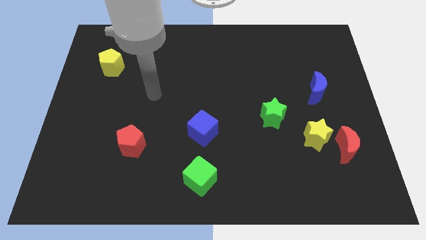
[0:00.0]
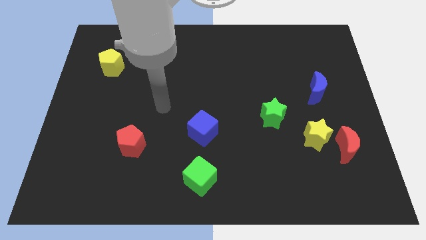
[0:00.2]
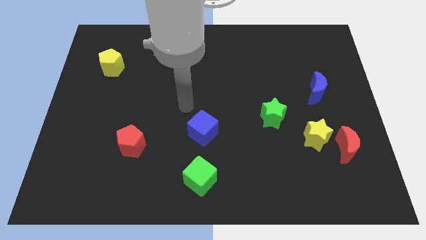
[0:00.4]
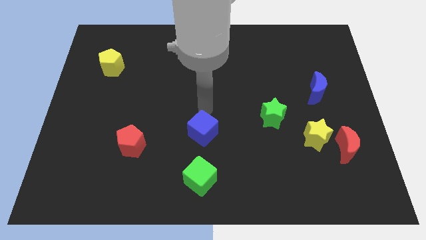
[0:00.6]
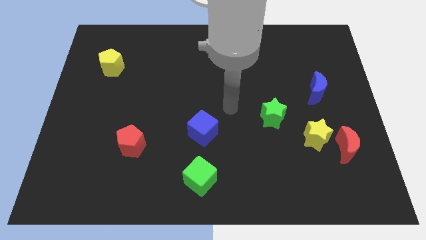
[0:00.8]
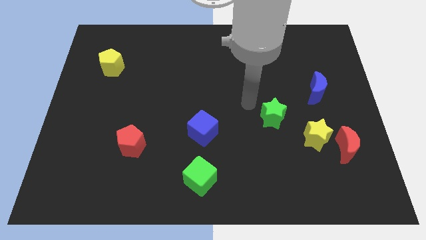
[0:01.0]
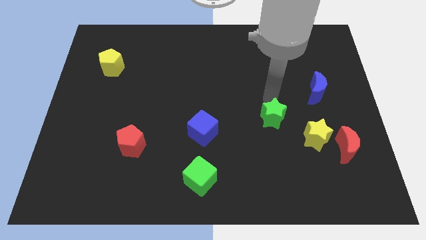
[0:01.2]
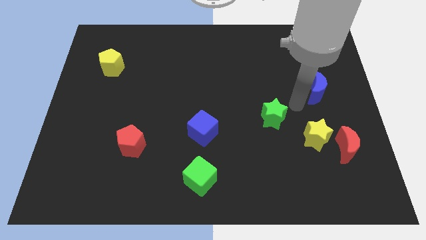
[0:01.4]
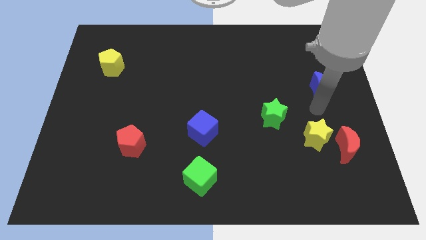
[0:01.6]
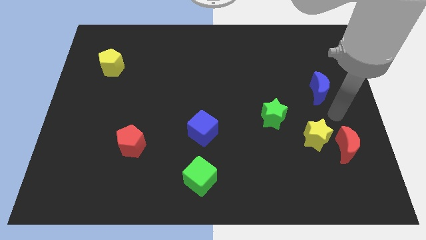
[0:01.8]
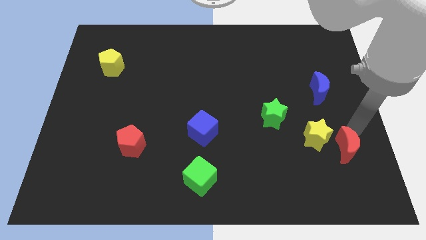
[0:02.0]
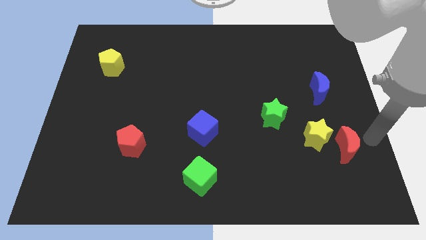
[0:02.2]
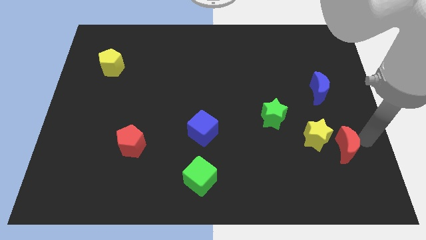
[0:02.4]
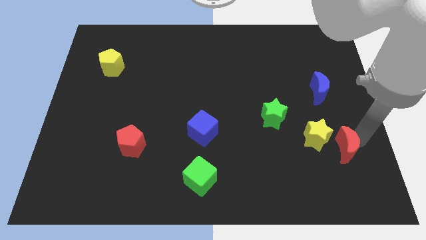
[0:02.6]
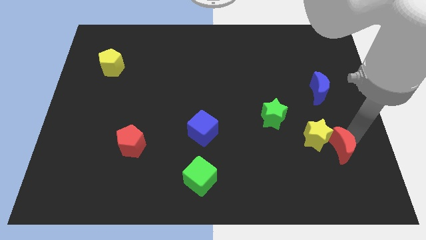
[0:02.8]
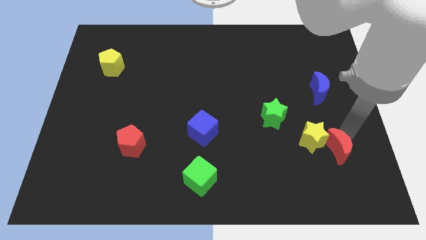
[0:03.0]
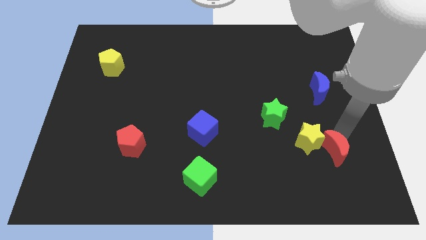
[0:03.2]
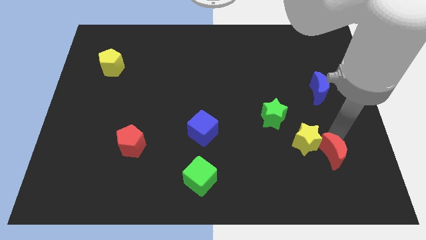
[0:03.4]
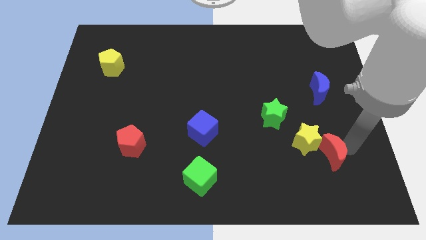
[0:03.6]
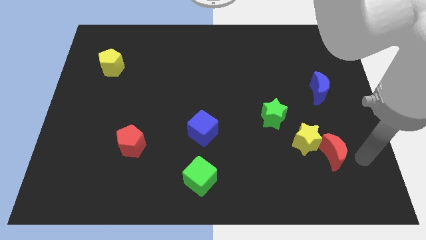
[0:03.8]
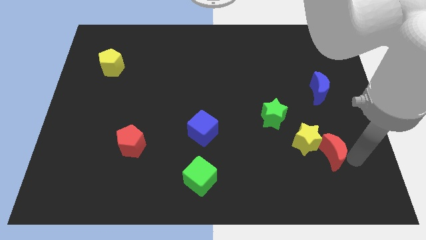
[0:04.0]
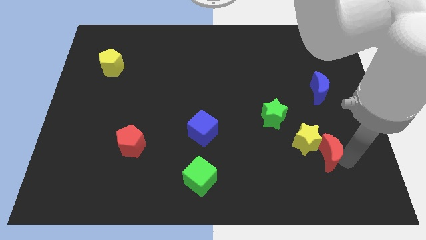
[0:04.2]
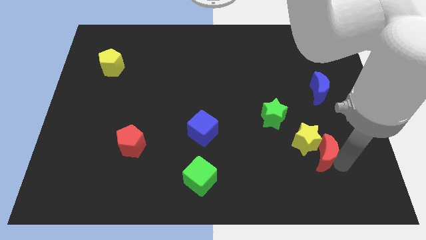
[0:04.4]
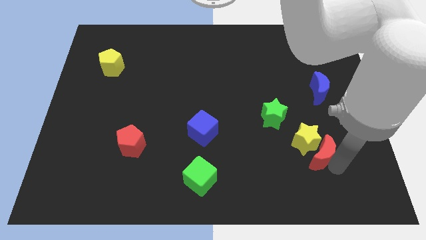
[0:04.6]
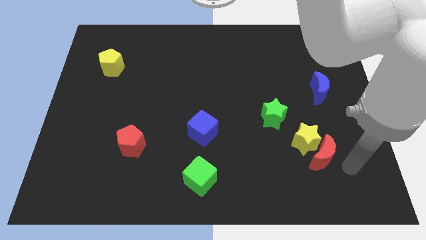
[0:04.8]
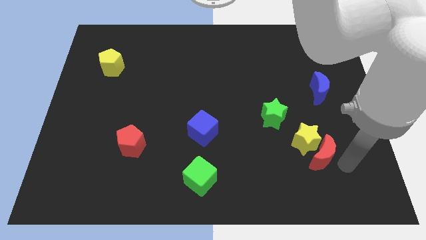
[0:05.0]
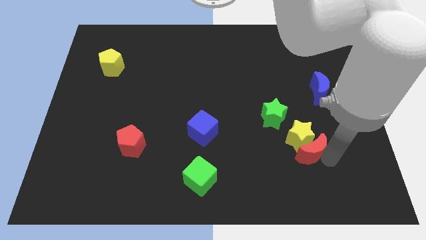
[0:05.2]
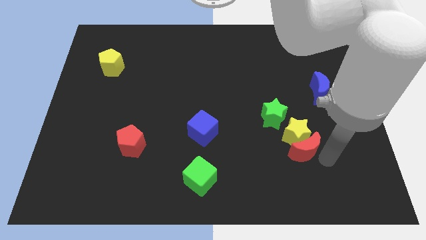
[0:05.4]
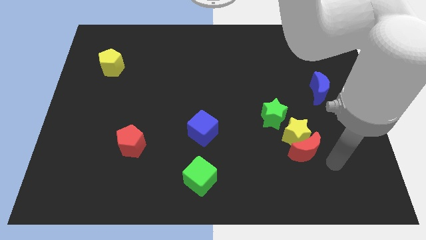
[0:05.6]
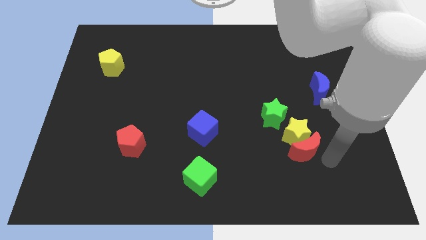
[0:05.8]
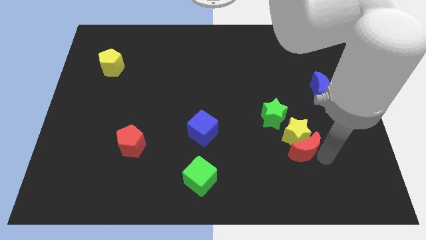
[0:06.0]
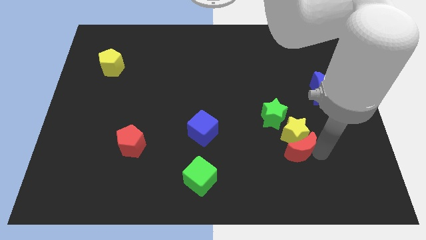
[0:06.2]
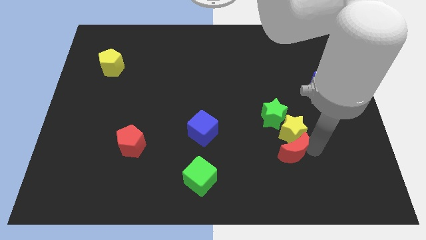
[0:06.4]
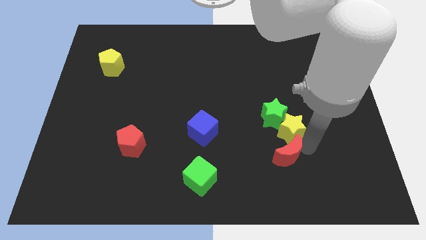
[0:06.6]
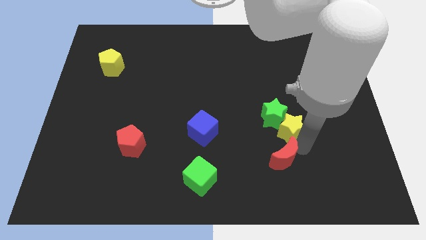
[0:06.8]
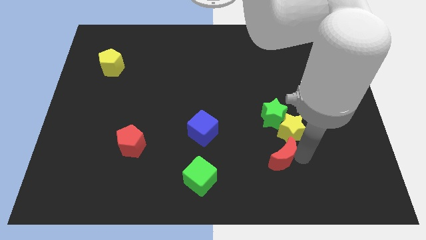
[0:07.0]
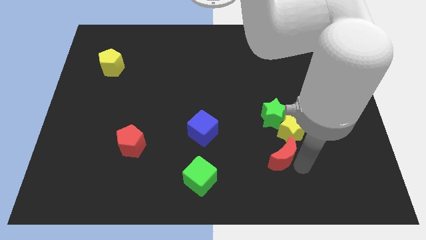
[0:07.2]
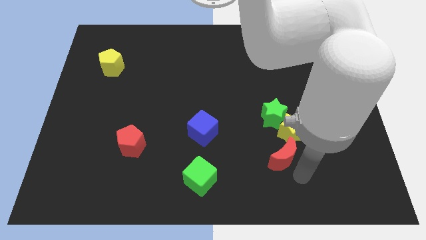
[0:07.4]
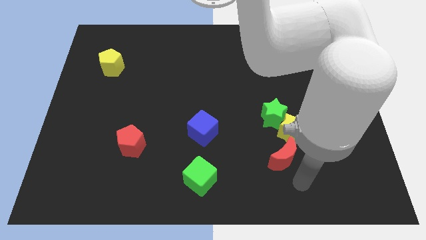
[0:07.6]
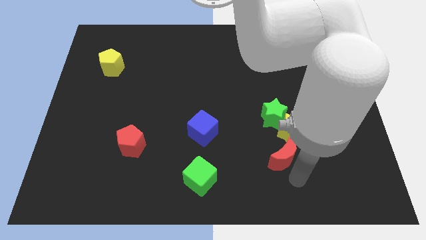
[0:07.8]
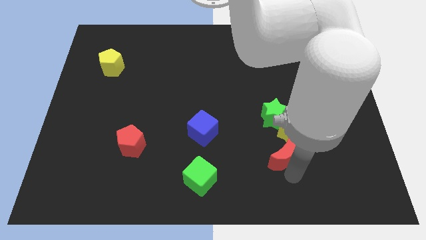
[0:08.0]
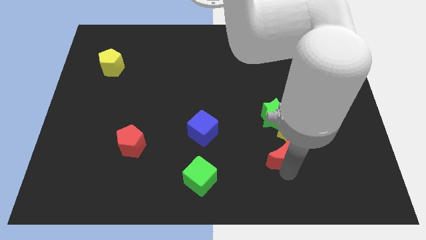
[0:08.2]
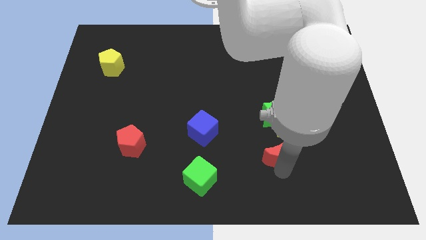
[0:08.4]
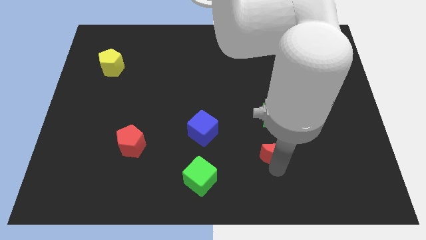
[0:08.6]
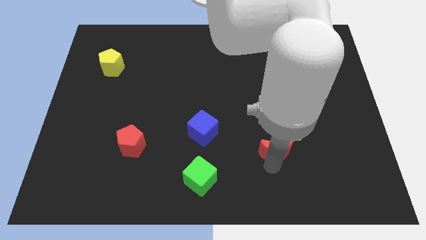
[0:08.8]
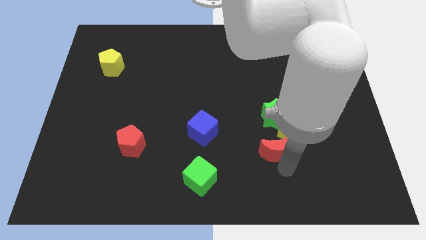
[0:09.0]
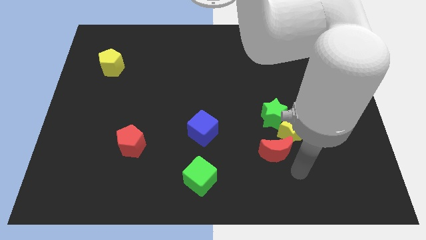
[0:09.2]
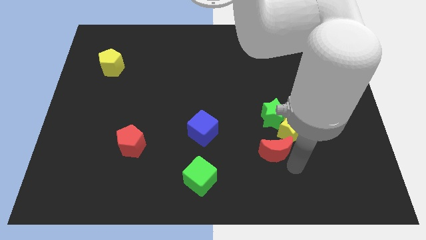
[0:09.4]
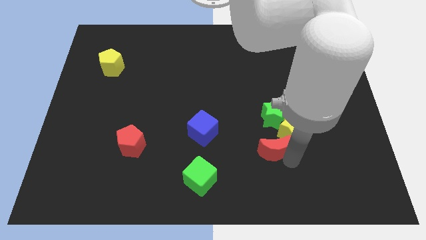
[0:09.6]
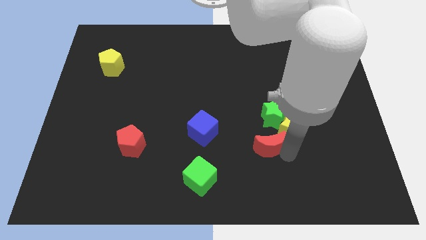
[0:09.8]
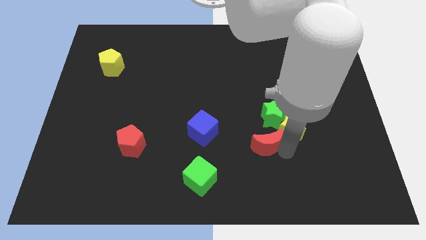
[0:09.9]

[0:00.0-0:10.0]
put the red moon to the right of the blue cube

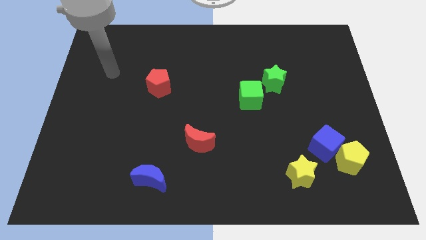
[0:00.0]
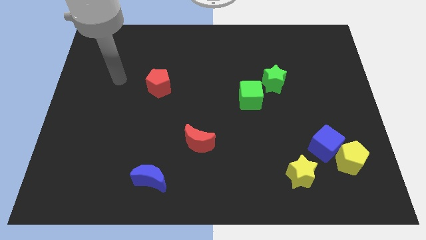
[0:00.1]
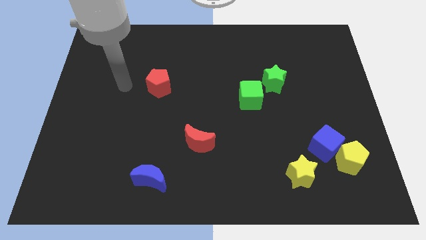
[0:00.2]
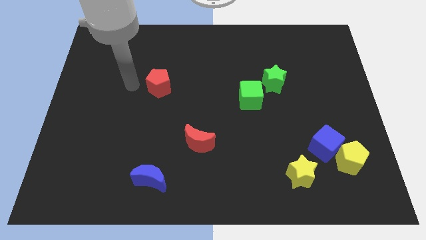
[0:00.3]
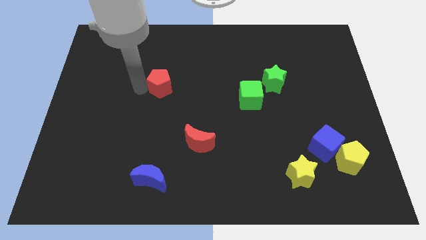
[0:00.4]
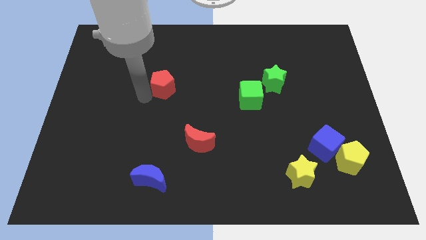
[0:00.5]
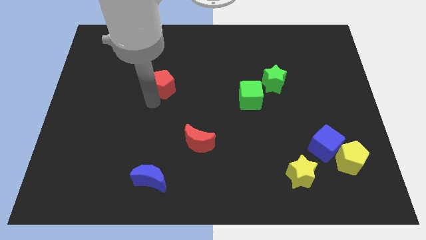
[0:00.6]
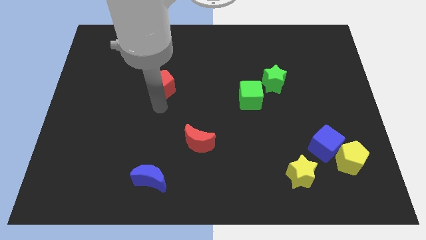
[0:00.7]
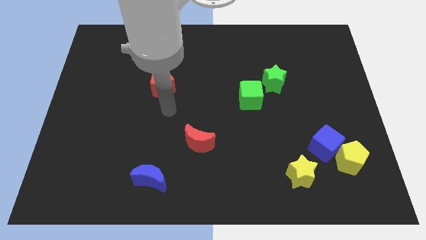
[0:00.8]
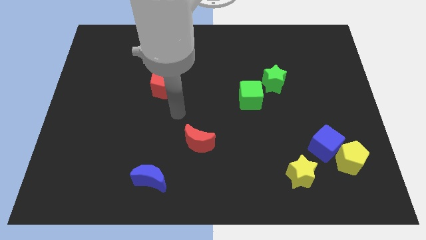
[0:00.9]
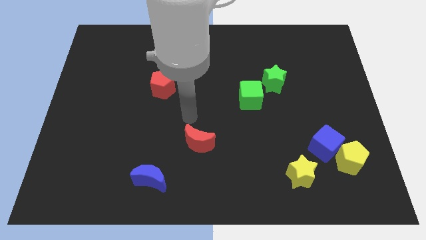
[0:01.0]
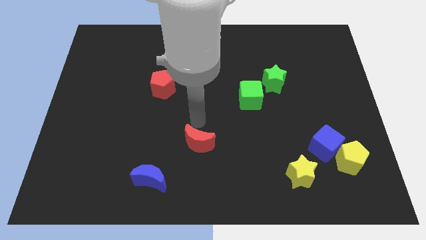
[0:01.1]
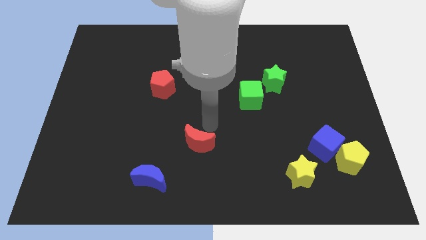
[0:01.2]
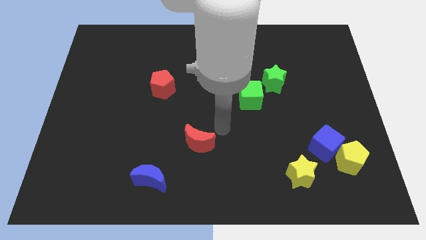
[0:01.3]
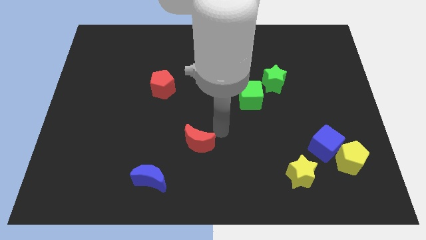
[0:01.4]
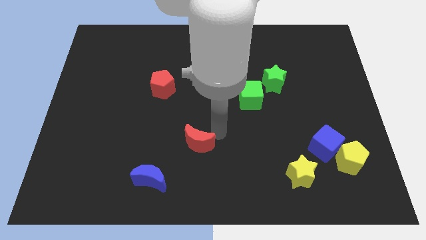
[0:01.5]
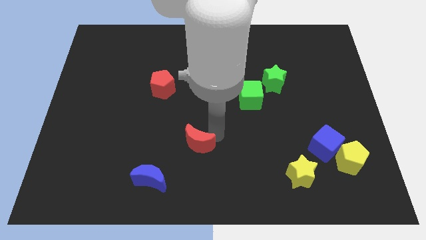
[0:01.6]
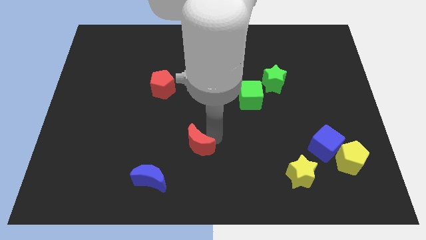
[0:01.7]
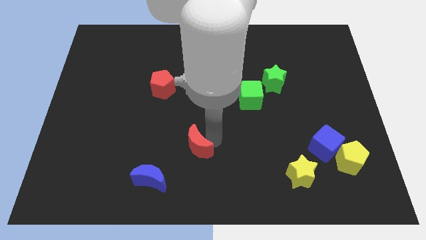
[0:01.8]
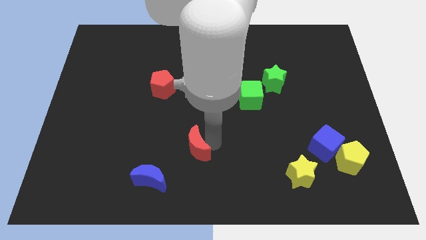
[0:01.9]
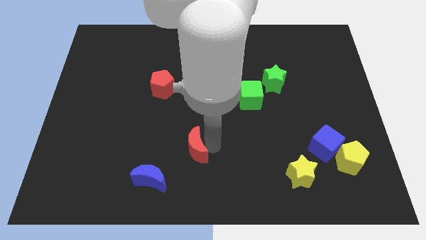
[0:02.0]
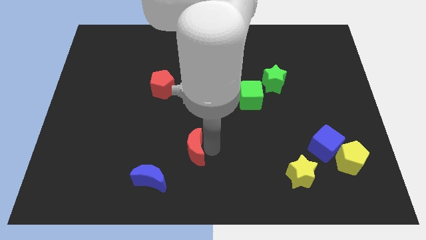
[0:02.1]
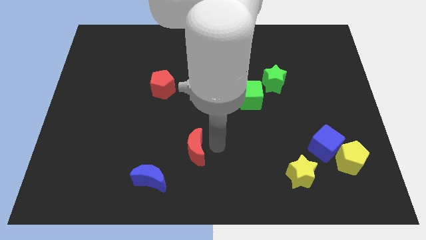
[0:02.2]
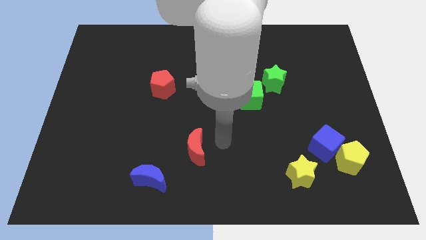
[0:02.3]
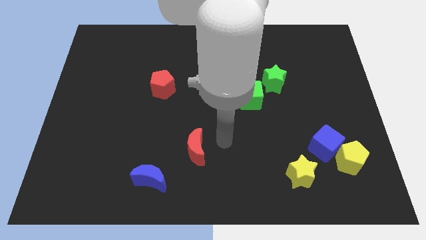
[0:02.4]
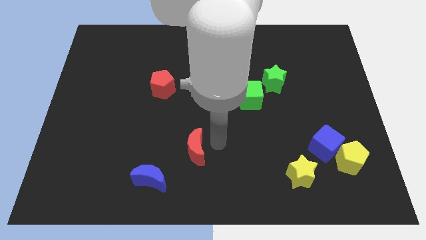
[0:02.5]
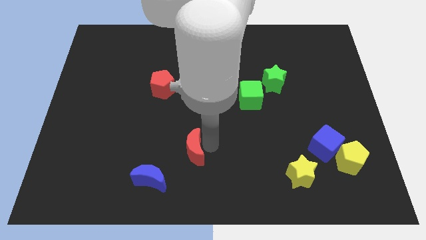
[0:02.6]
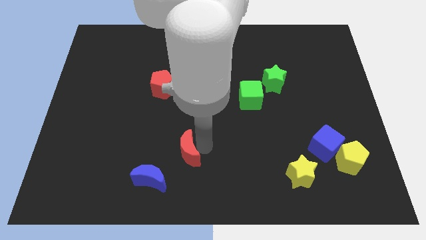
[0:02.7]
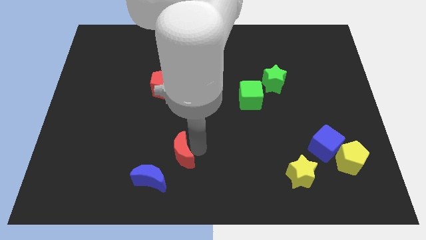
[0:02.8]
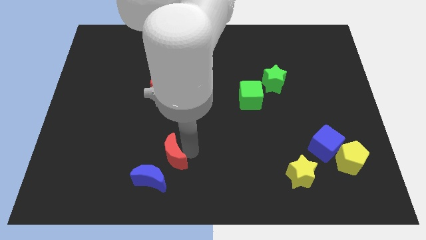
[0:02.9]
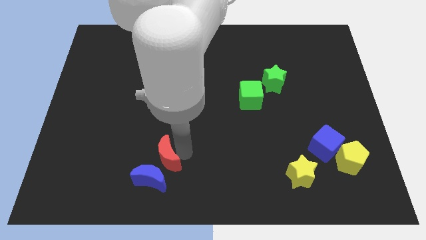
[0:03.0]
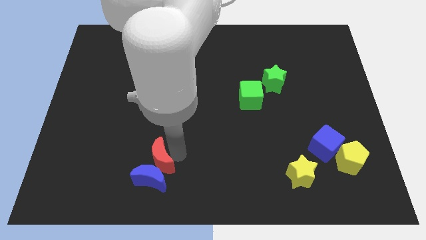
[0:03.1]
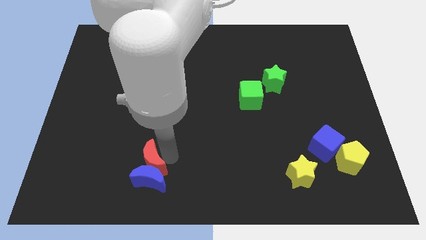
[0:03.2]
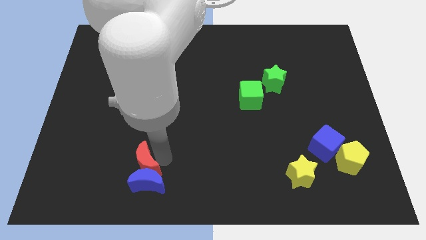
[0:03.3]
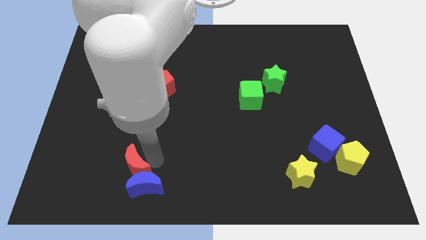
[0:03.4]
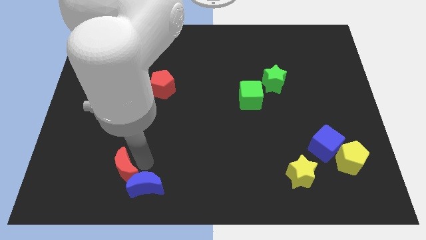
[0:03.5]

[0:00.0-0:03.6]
slide the red moon to the left side of the blue moon
